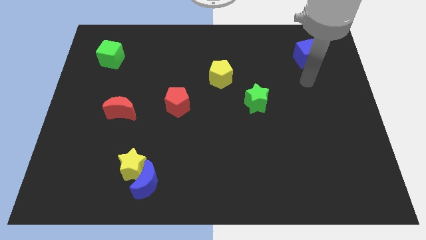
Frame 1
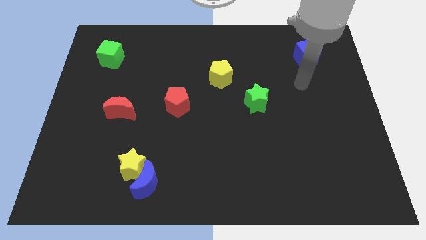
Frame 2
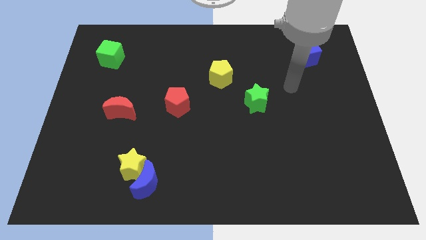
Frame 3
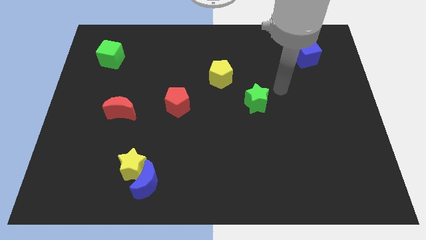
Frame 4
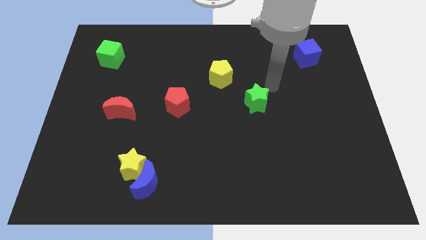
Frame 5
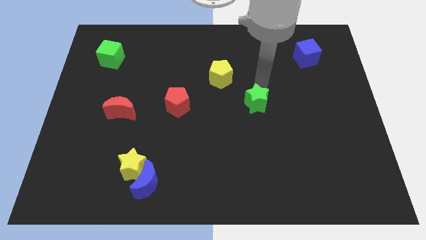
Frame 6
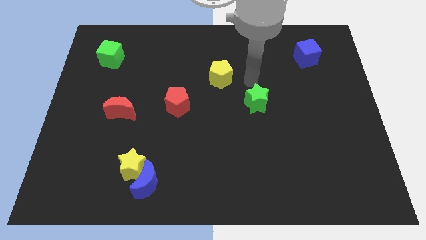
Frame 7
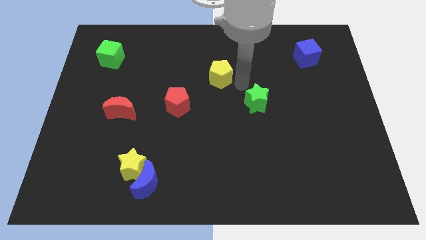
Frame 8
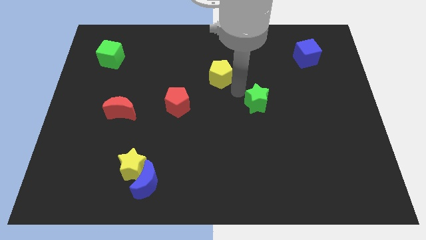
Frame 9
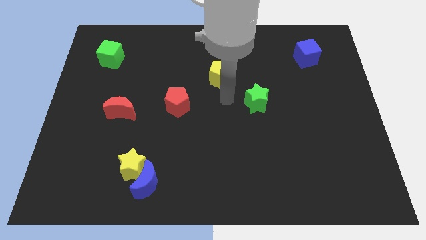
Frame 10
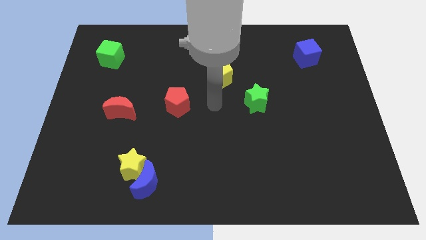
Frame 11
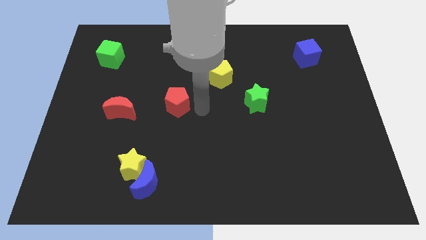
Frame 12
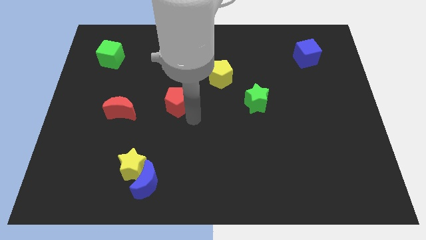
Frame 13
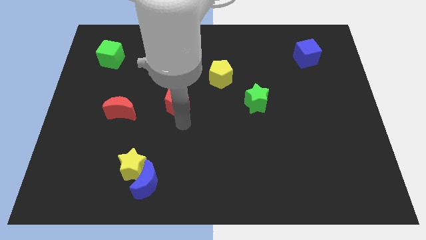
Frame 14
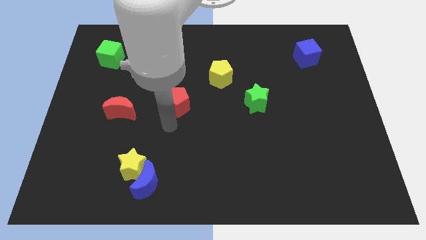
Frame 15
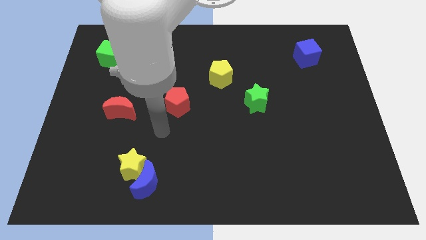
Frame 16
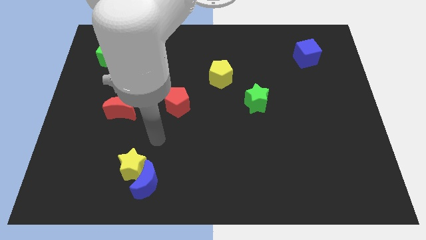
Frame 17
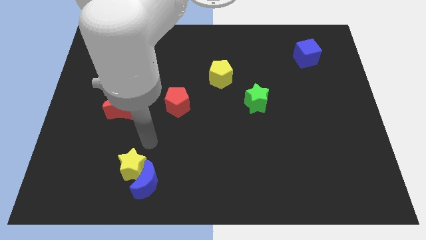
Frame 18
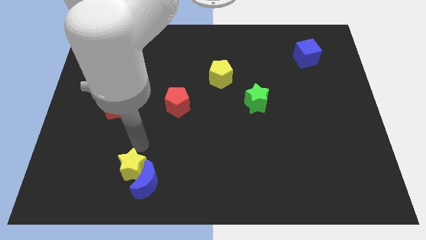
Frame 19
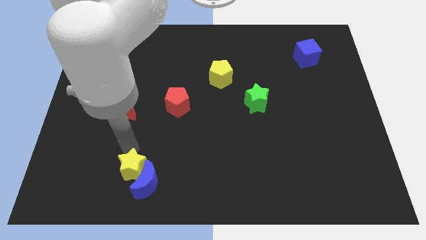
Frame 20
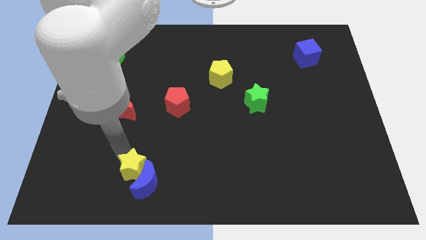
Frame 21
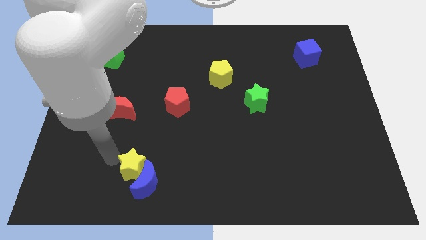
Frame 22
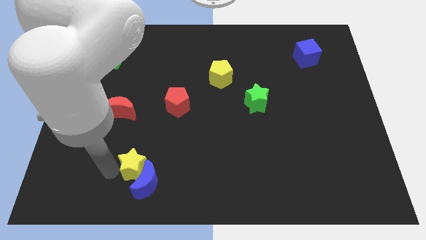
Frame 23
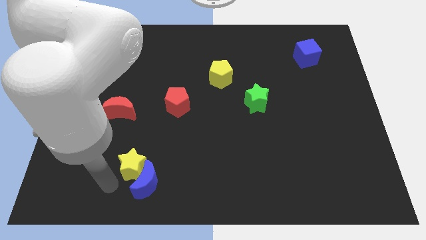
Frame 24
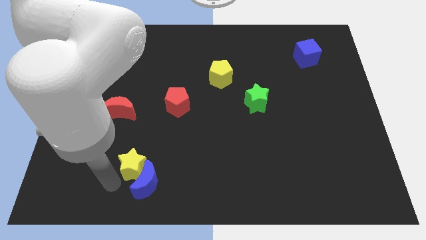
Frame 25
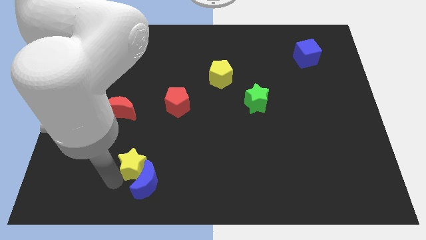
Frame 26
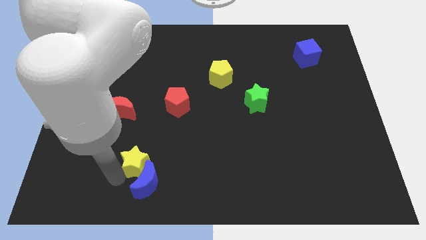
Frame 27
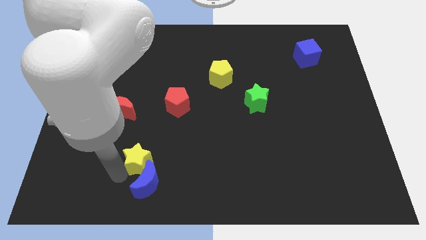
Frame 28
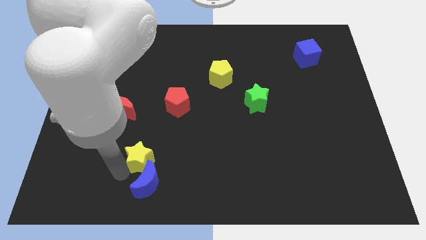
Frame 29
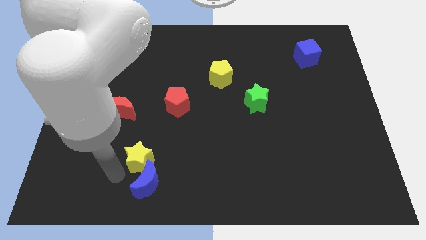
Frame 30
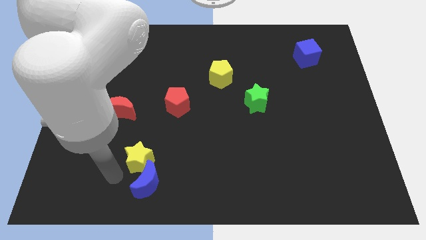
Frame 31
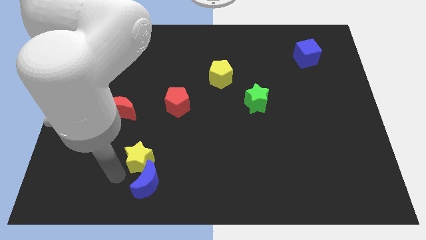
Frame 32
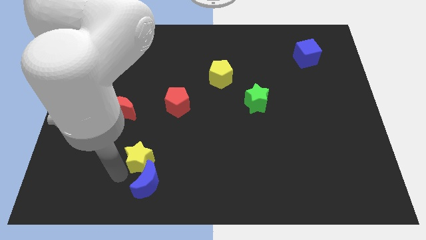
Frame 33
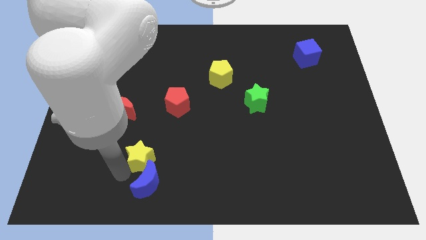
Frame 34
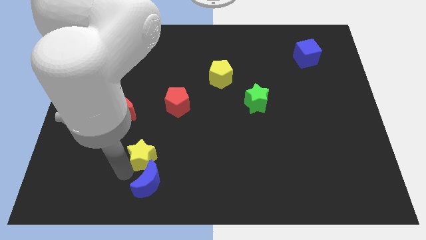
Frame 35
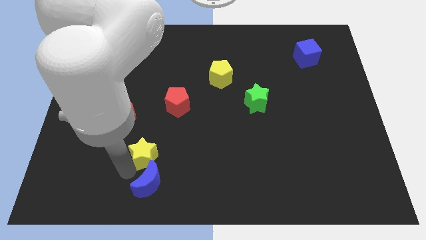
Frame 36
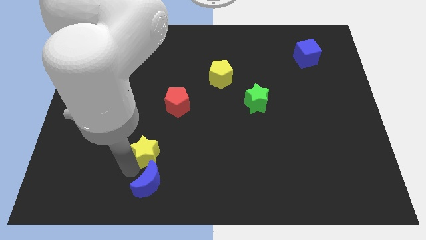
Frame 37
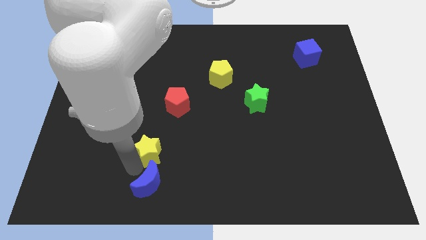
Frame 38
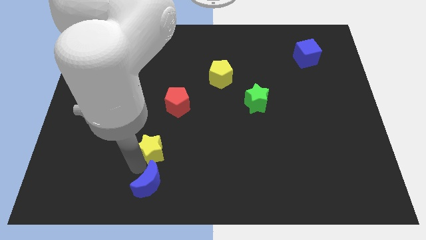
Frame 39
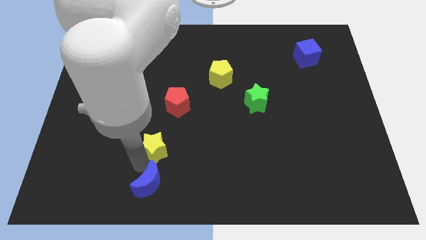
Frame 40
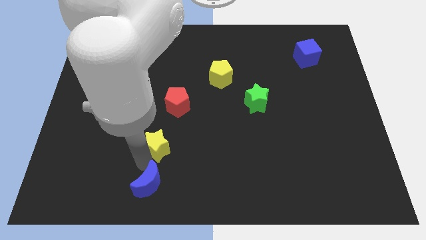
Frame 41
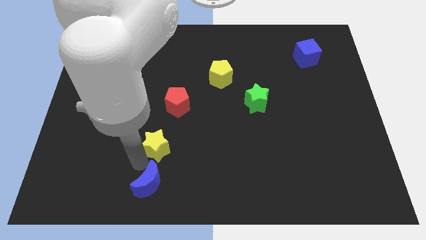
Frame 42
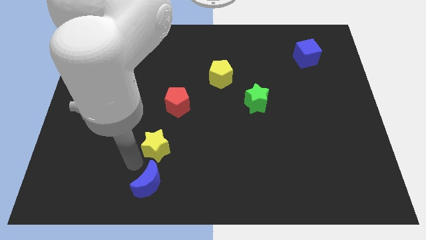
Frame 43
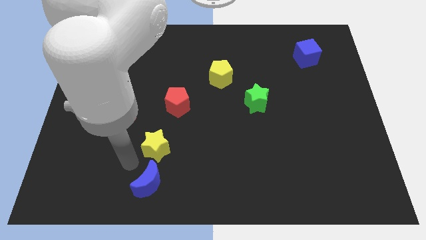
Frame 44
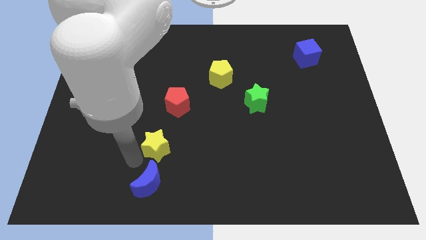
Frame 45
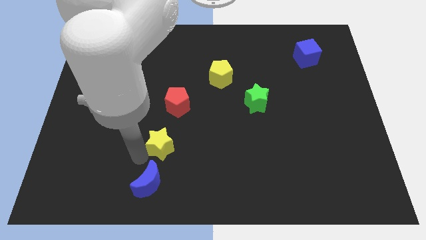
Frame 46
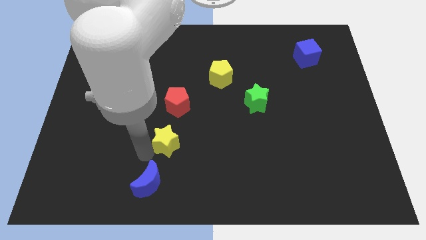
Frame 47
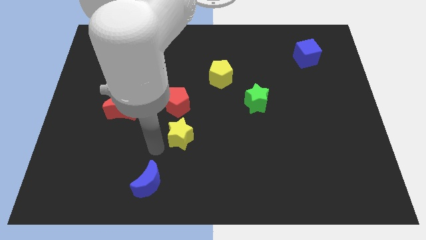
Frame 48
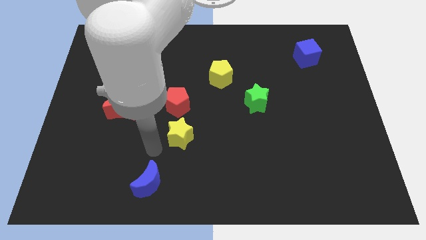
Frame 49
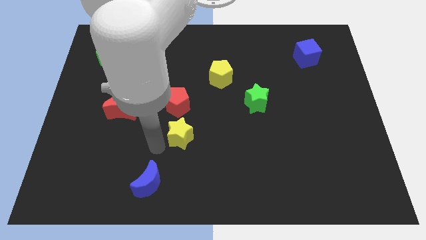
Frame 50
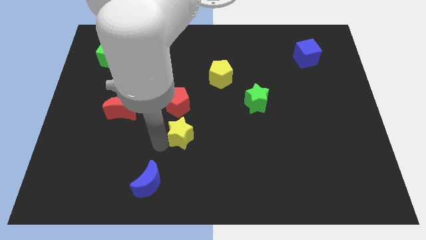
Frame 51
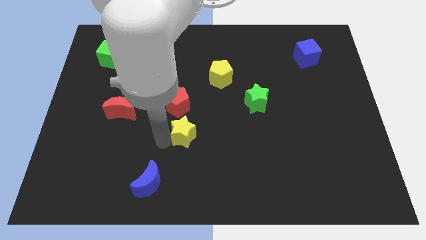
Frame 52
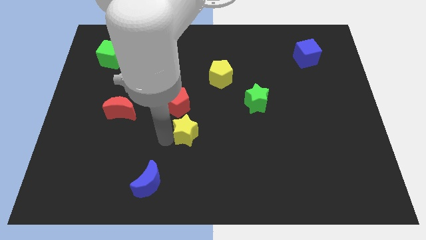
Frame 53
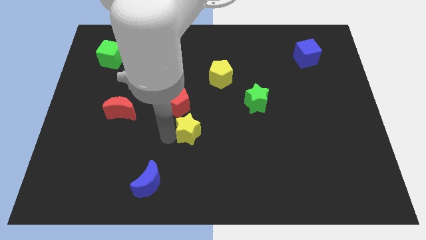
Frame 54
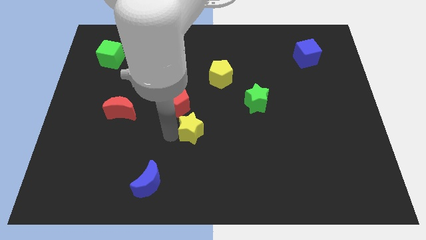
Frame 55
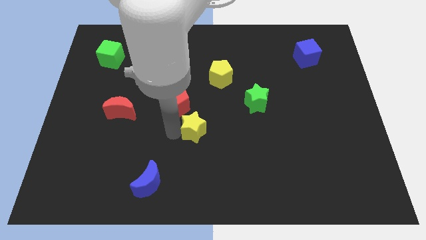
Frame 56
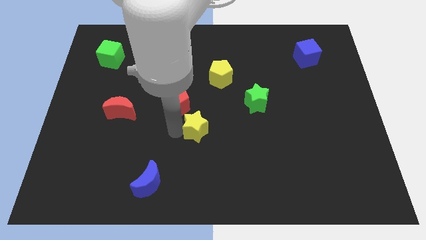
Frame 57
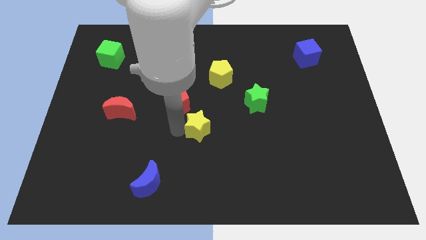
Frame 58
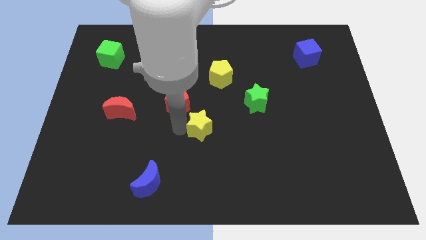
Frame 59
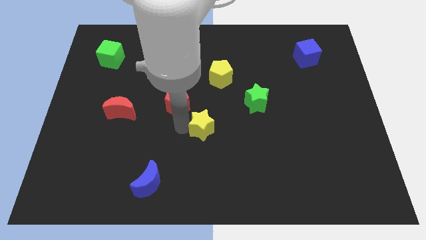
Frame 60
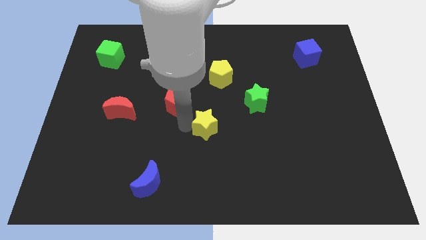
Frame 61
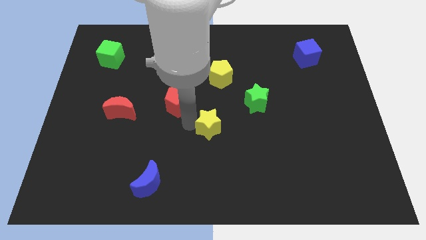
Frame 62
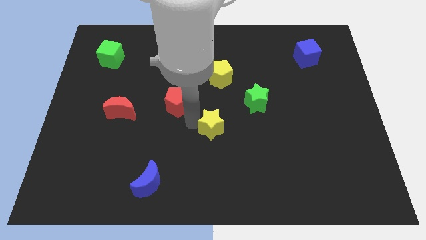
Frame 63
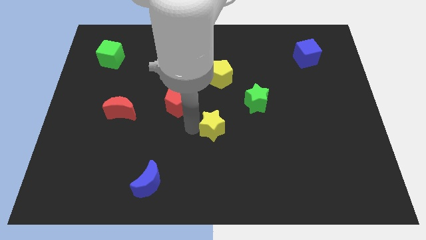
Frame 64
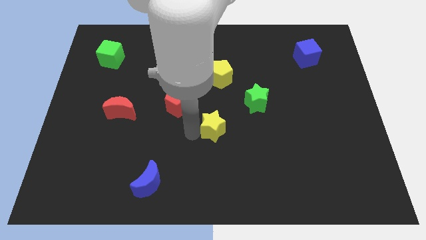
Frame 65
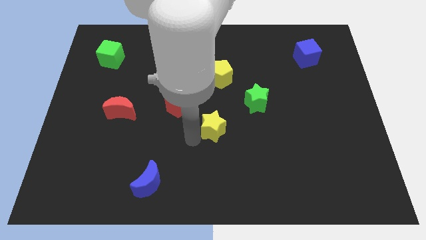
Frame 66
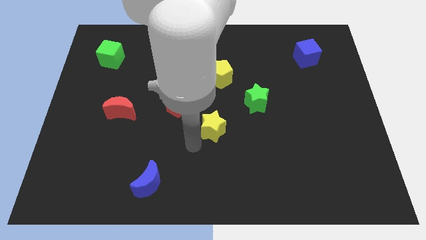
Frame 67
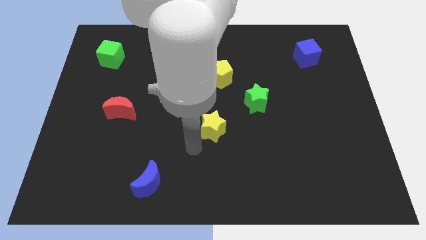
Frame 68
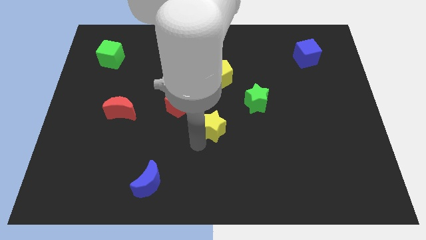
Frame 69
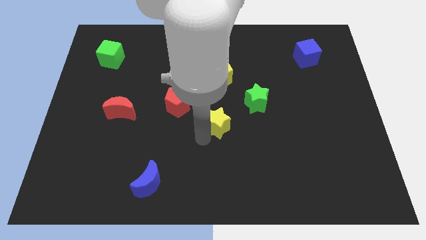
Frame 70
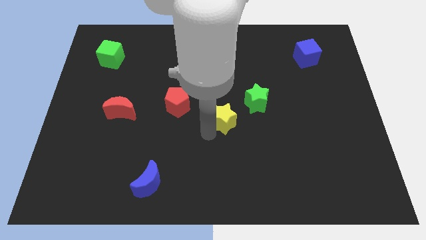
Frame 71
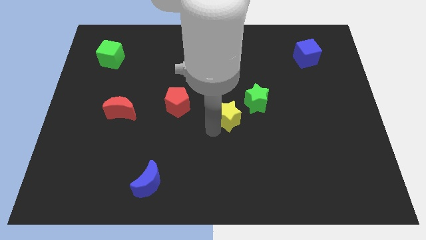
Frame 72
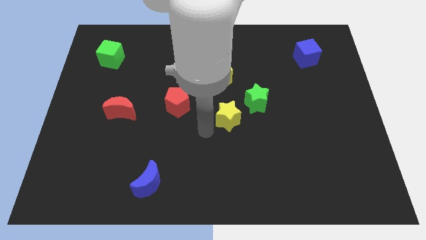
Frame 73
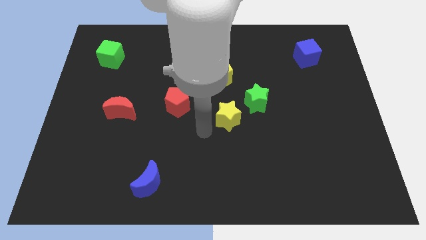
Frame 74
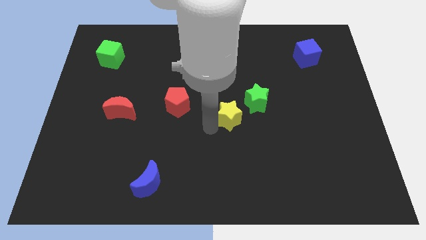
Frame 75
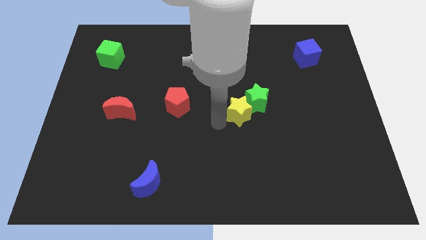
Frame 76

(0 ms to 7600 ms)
move the yellow star towards the green star
